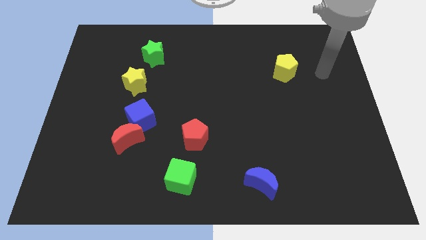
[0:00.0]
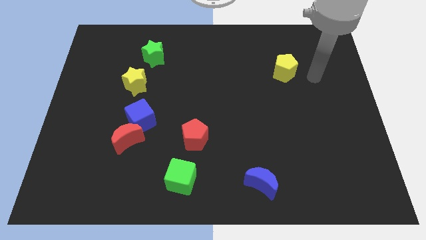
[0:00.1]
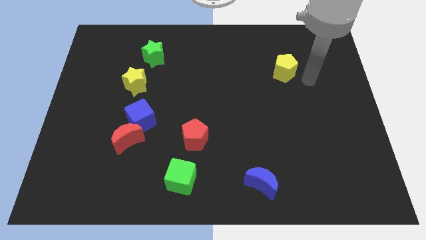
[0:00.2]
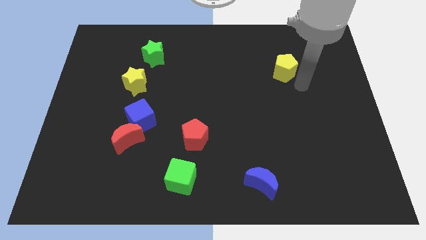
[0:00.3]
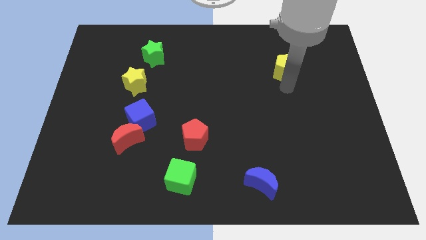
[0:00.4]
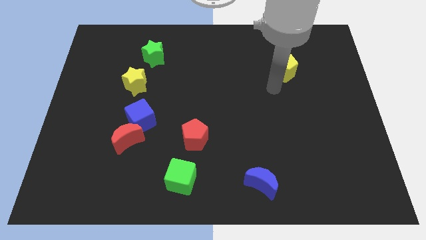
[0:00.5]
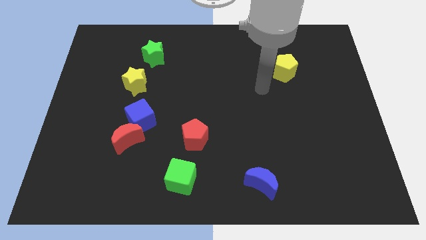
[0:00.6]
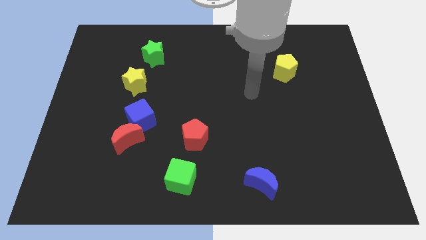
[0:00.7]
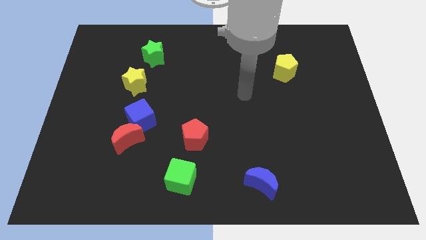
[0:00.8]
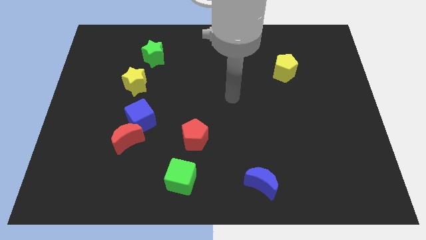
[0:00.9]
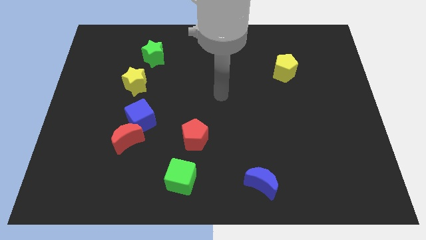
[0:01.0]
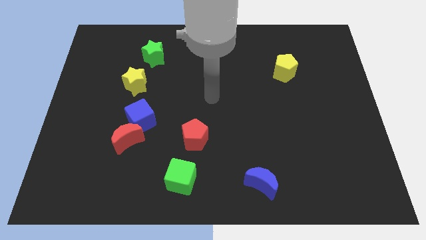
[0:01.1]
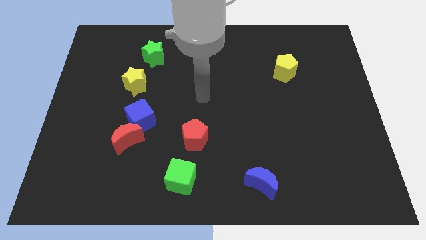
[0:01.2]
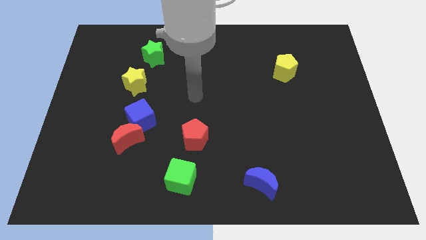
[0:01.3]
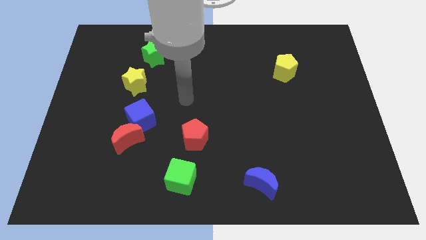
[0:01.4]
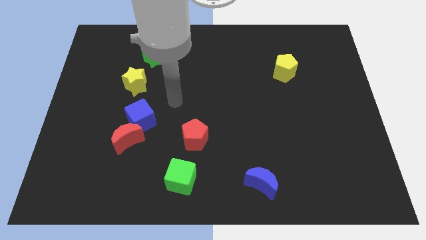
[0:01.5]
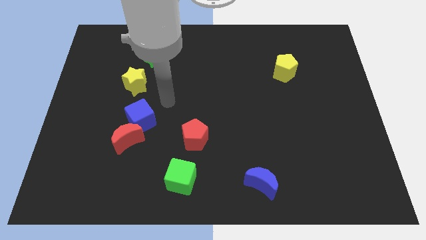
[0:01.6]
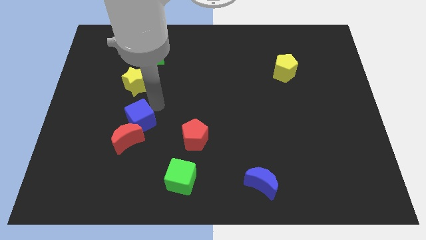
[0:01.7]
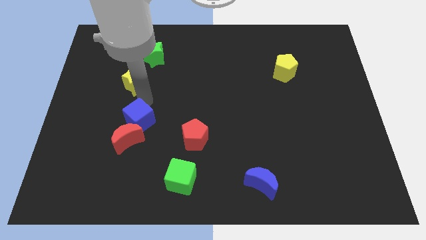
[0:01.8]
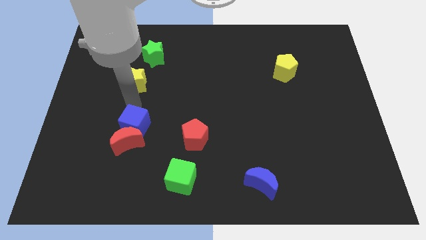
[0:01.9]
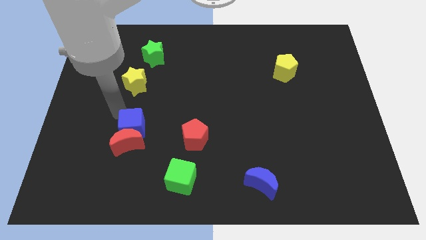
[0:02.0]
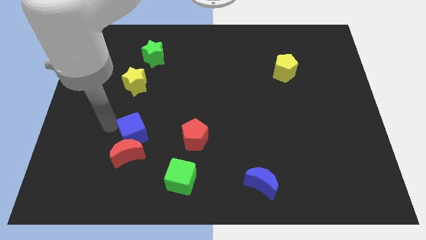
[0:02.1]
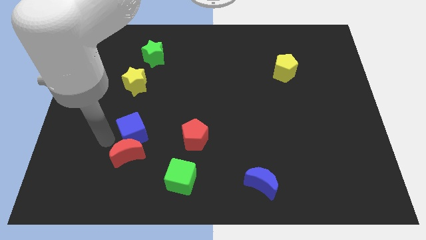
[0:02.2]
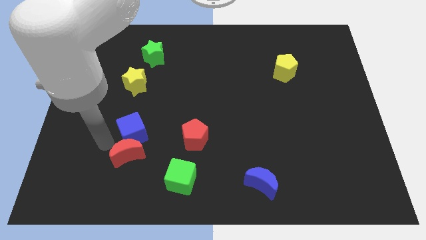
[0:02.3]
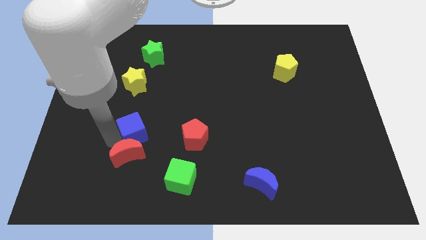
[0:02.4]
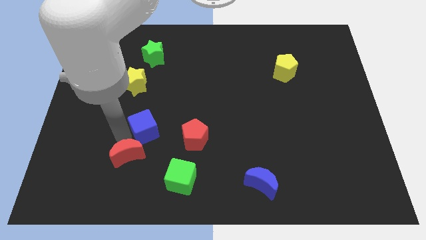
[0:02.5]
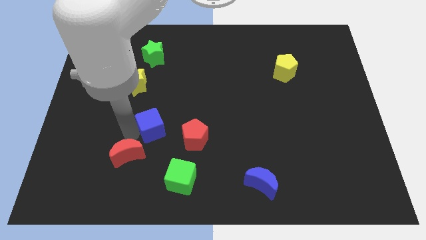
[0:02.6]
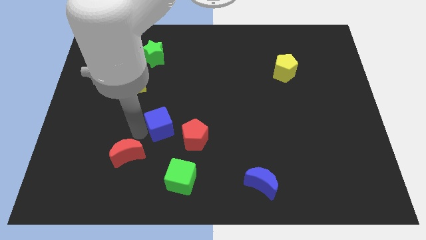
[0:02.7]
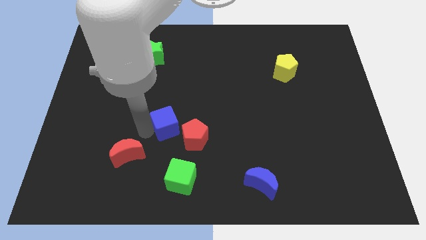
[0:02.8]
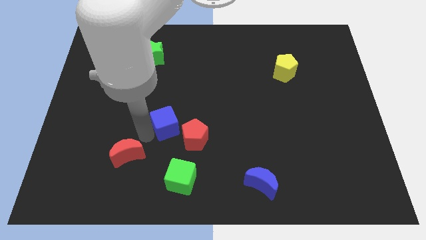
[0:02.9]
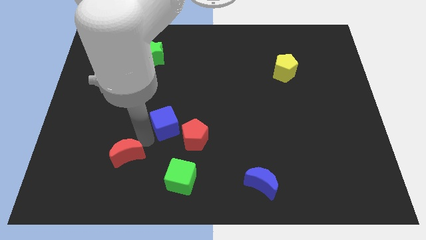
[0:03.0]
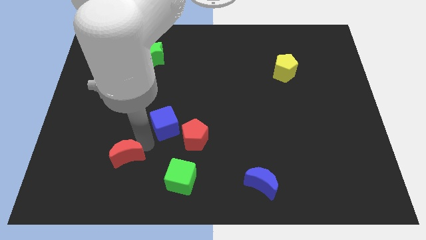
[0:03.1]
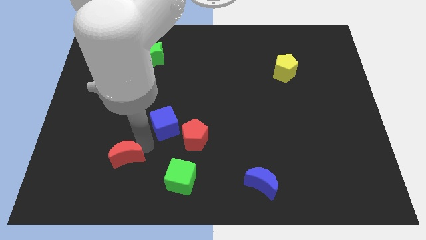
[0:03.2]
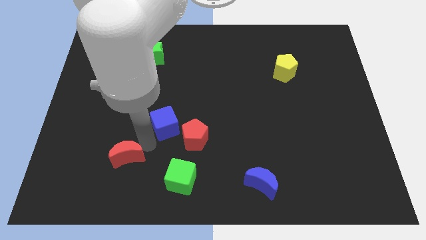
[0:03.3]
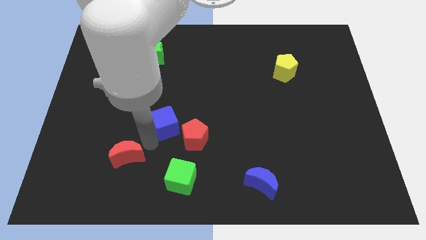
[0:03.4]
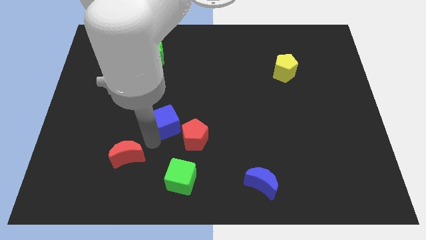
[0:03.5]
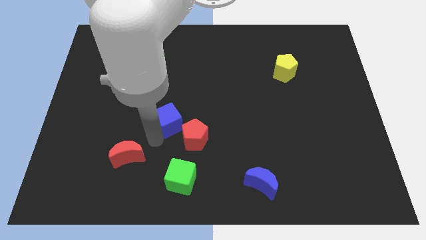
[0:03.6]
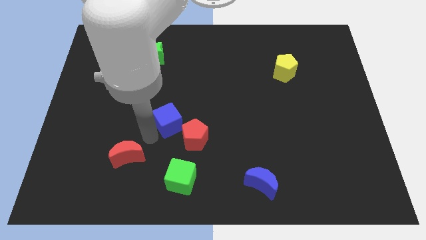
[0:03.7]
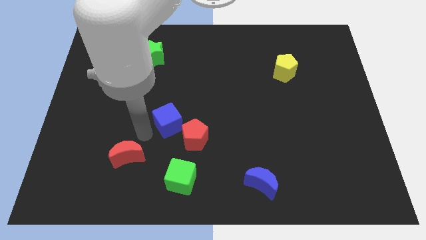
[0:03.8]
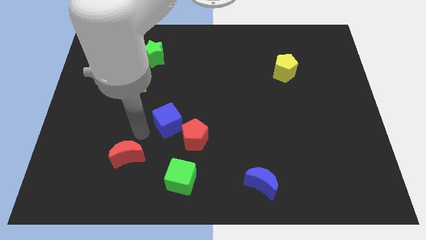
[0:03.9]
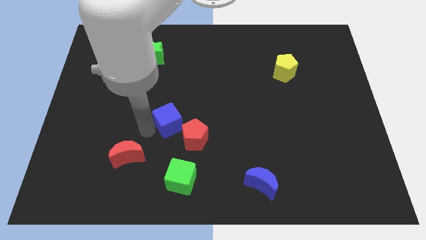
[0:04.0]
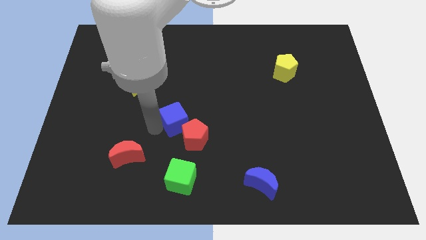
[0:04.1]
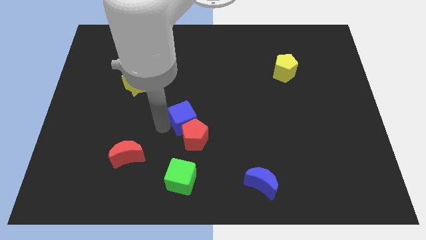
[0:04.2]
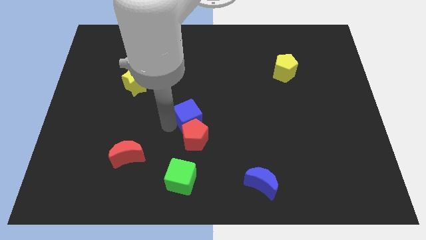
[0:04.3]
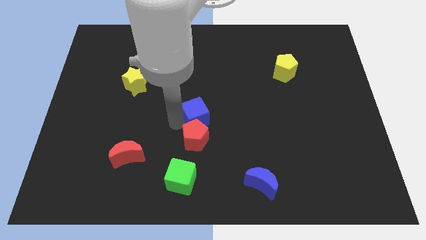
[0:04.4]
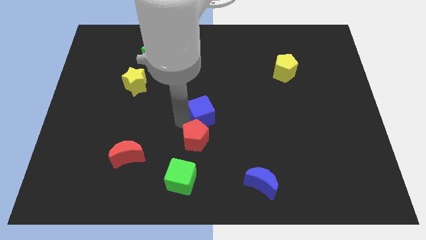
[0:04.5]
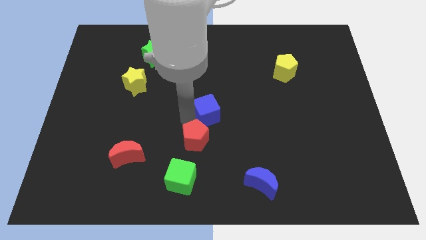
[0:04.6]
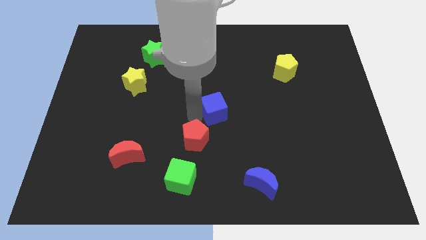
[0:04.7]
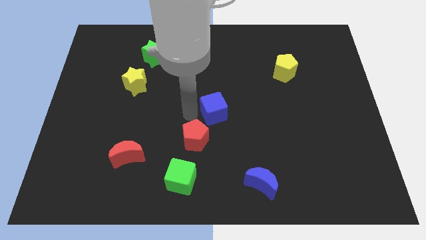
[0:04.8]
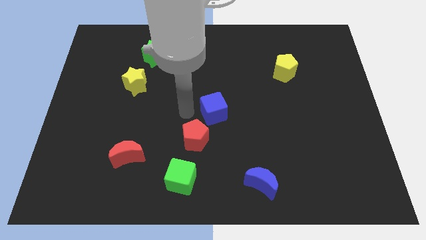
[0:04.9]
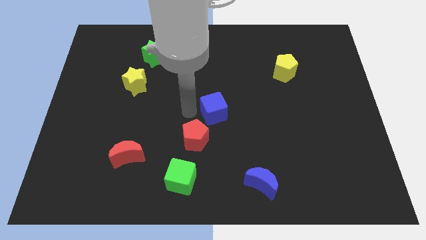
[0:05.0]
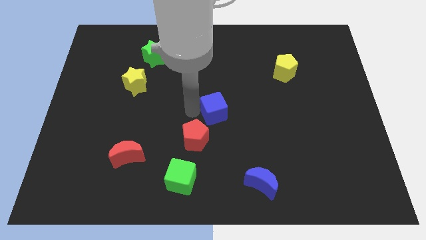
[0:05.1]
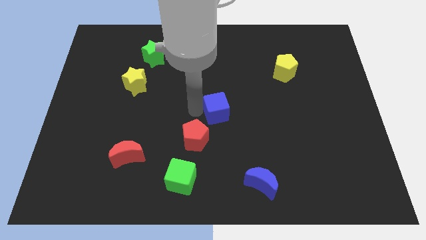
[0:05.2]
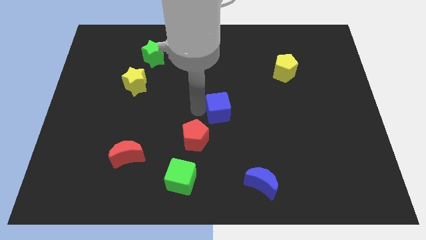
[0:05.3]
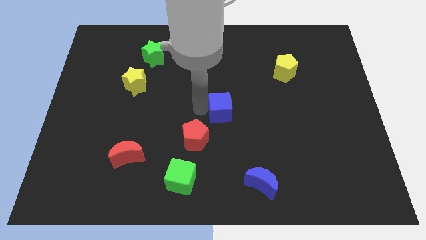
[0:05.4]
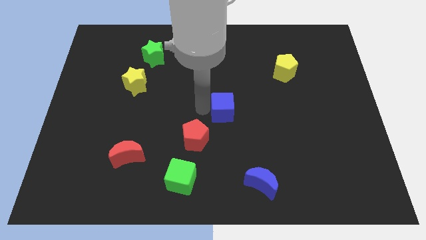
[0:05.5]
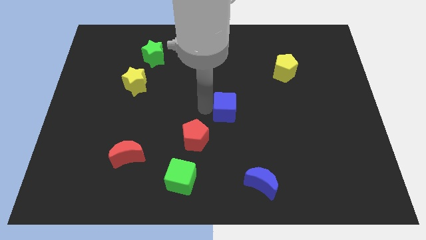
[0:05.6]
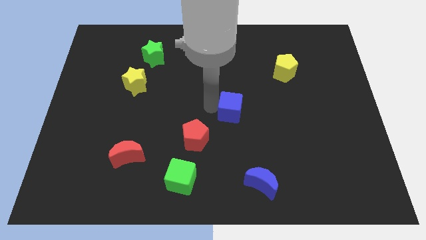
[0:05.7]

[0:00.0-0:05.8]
move the blue cube right

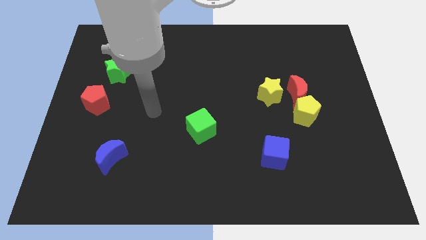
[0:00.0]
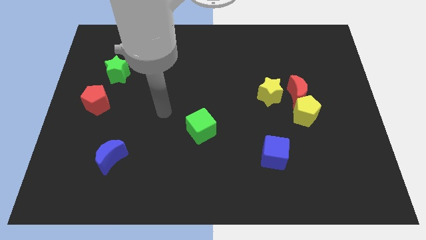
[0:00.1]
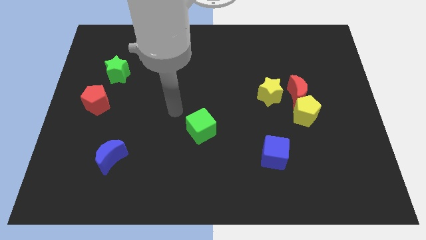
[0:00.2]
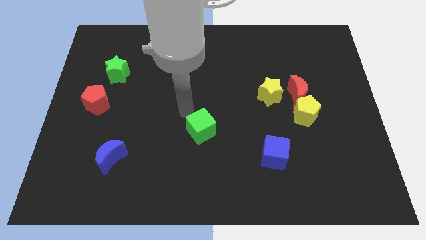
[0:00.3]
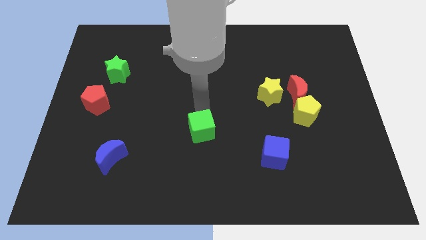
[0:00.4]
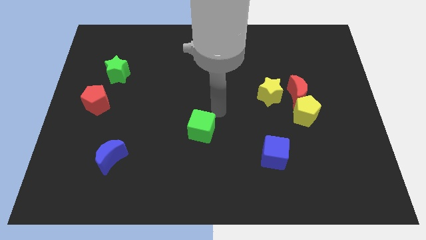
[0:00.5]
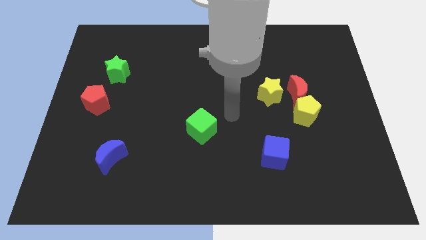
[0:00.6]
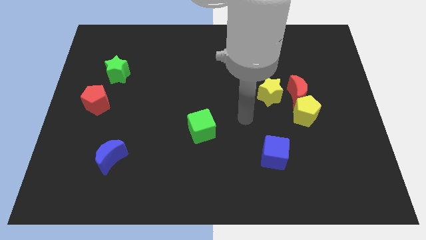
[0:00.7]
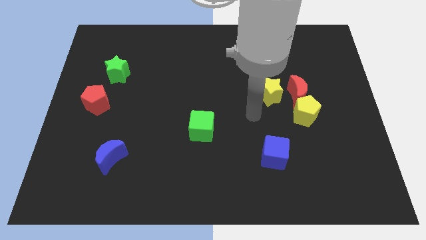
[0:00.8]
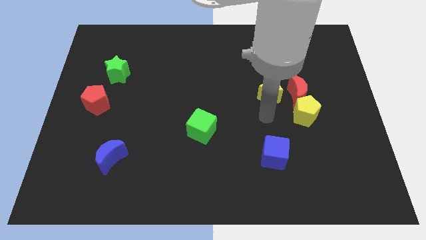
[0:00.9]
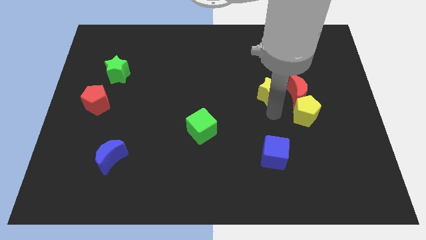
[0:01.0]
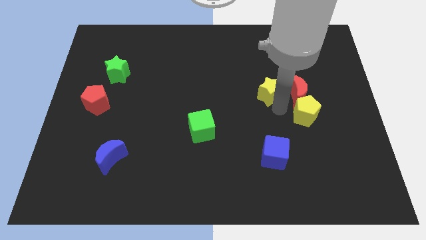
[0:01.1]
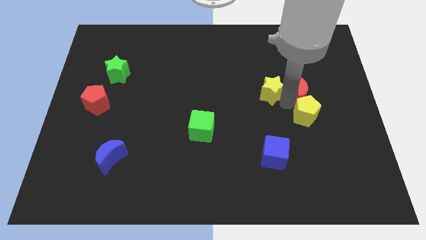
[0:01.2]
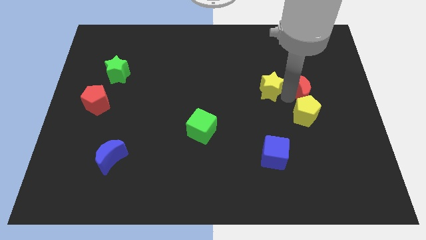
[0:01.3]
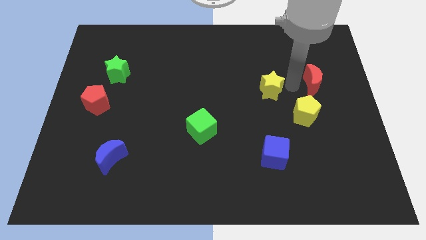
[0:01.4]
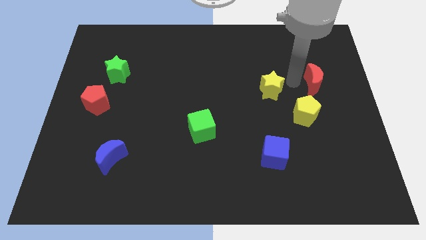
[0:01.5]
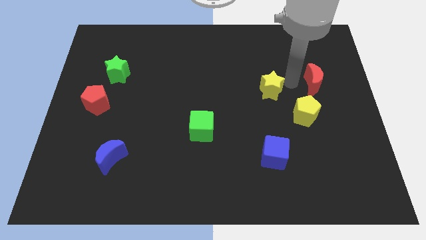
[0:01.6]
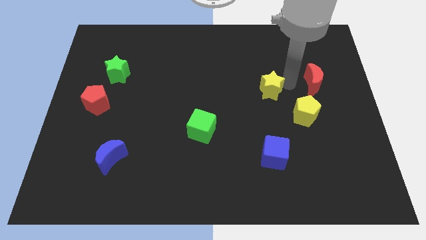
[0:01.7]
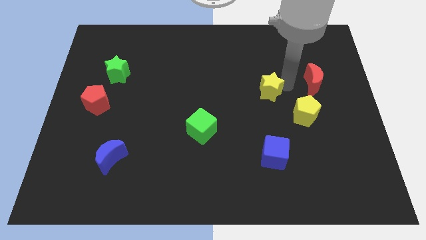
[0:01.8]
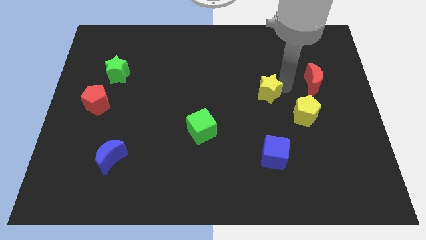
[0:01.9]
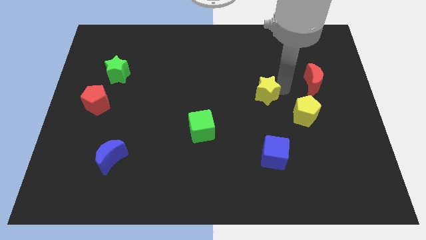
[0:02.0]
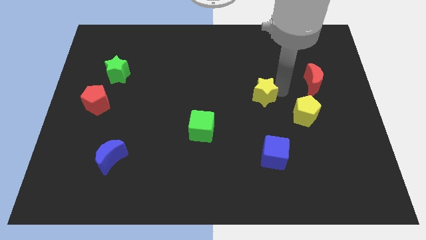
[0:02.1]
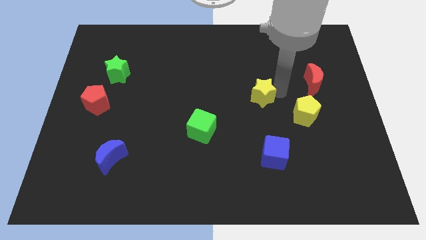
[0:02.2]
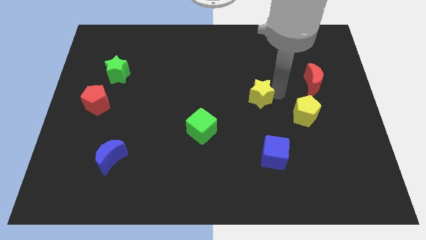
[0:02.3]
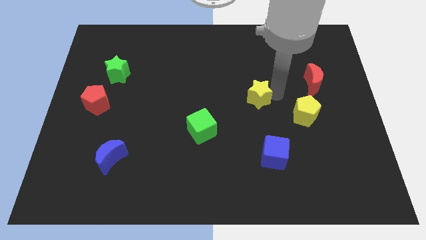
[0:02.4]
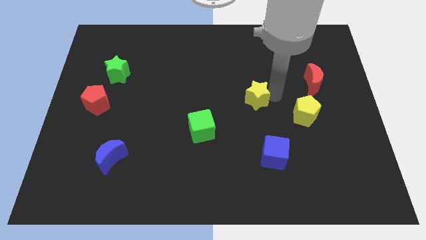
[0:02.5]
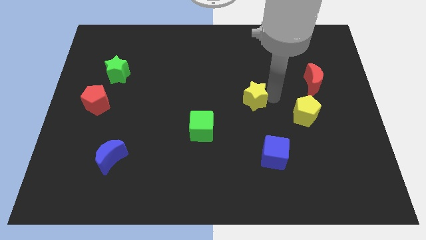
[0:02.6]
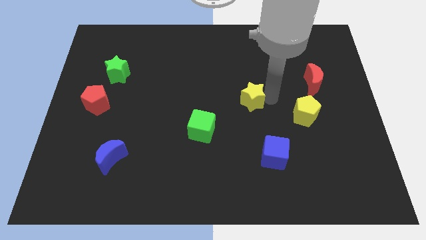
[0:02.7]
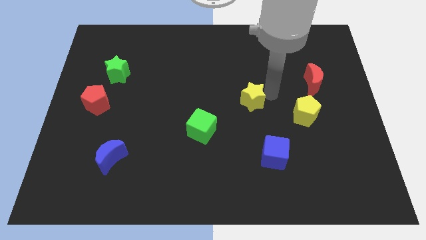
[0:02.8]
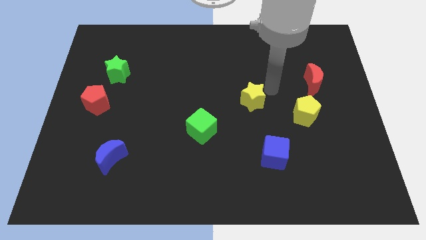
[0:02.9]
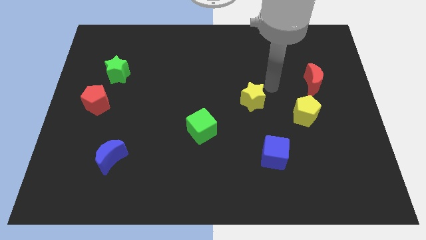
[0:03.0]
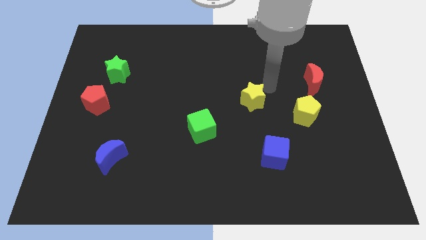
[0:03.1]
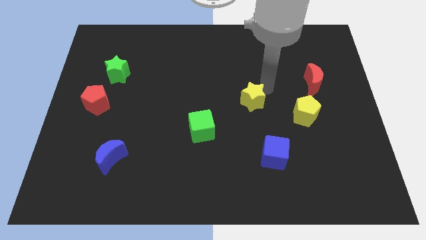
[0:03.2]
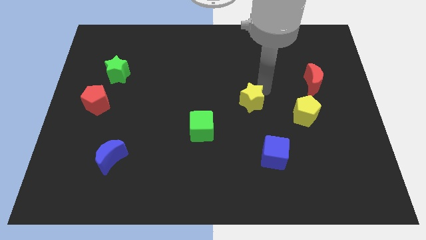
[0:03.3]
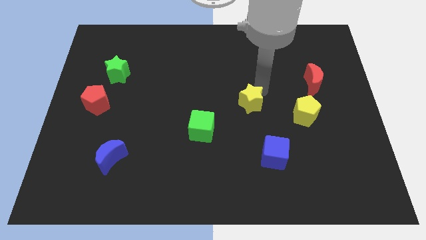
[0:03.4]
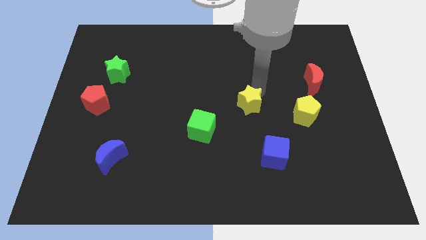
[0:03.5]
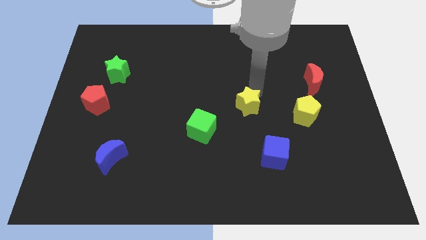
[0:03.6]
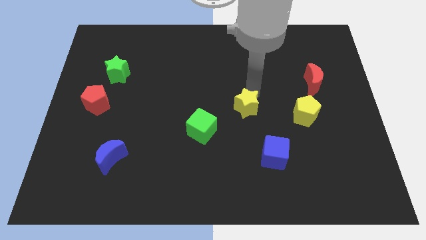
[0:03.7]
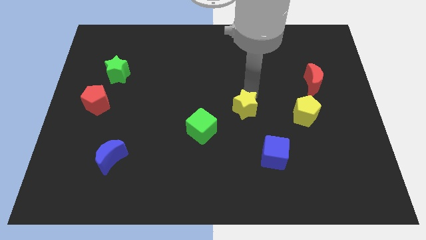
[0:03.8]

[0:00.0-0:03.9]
slide the yellow star downwards and left diagonally a little bit
